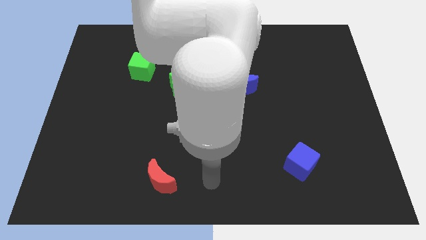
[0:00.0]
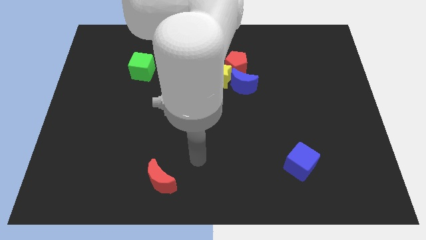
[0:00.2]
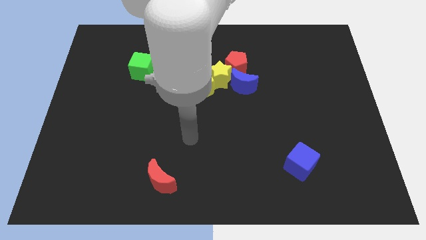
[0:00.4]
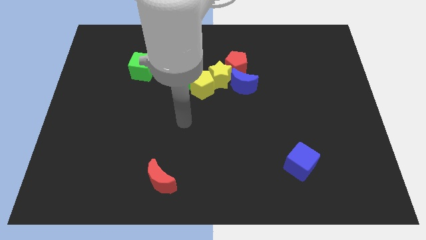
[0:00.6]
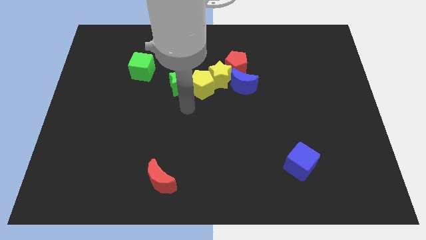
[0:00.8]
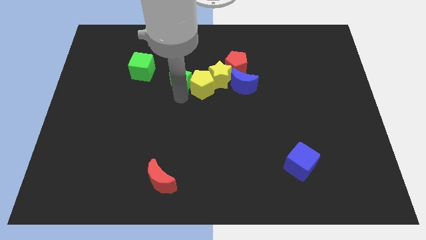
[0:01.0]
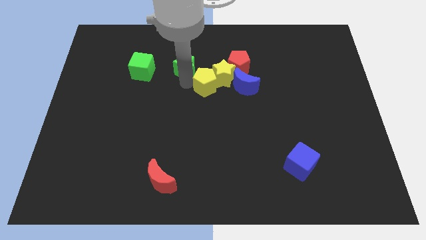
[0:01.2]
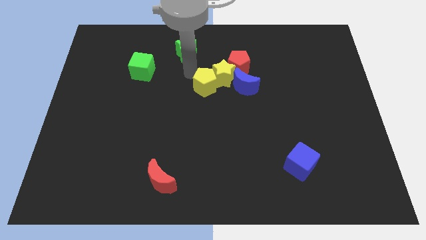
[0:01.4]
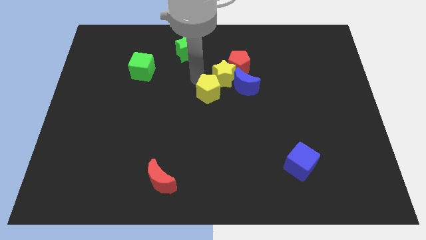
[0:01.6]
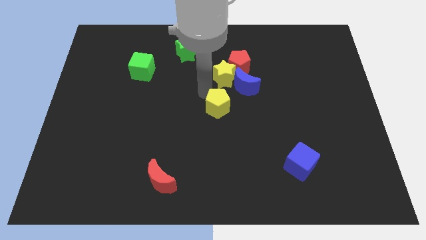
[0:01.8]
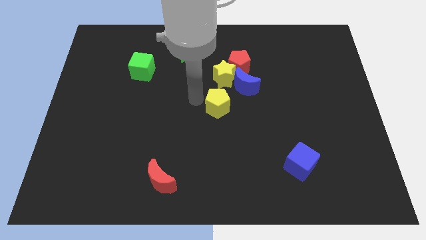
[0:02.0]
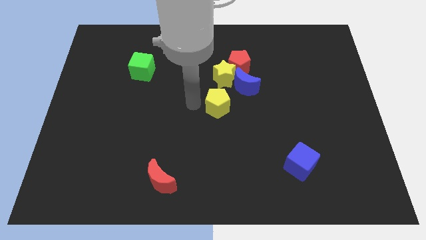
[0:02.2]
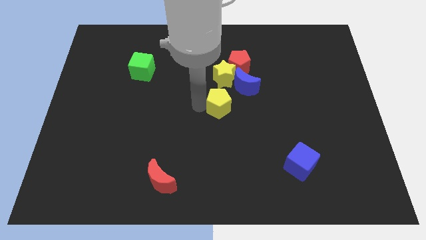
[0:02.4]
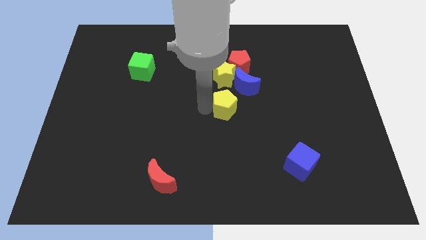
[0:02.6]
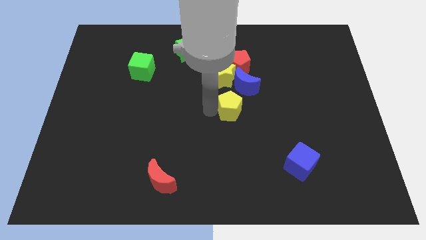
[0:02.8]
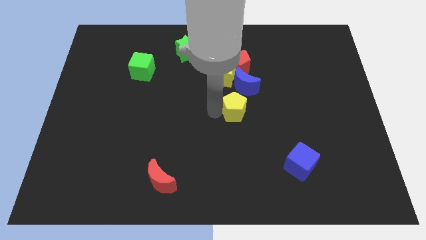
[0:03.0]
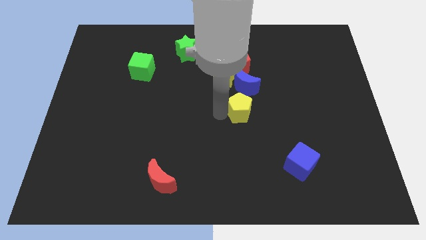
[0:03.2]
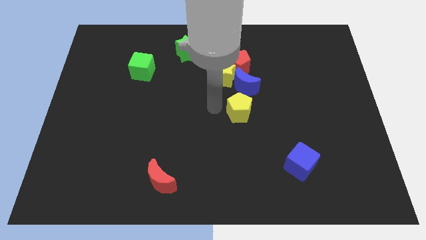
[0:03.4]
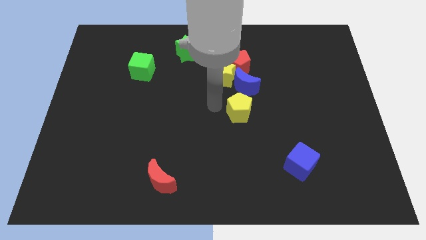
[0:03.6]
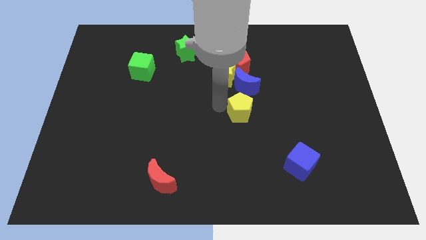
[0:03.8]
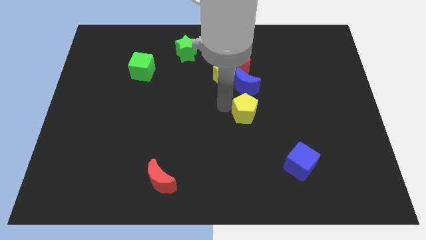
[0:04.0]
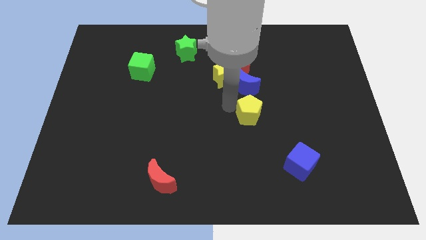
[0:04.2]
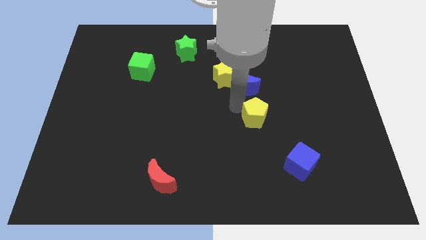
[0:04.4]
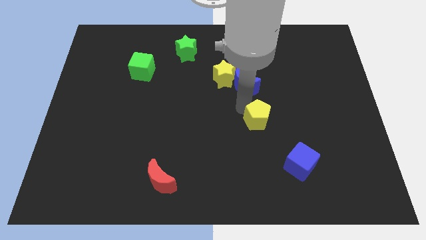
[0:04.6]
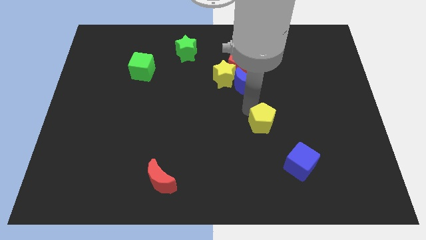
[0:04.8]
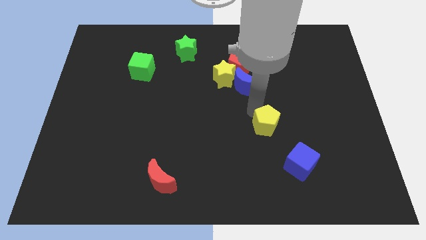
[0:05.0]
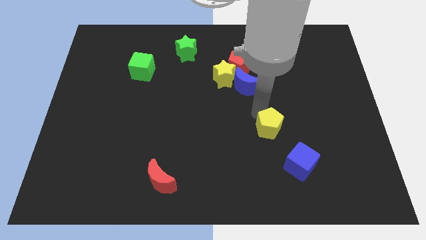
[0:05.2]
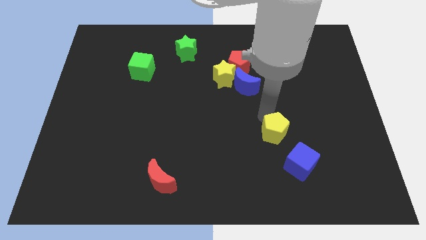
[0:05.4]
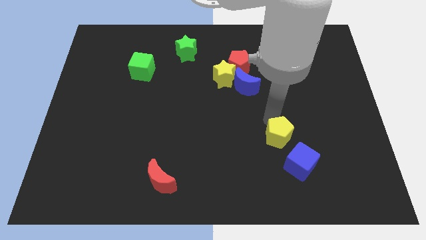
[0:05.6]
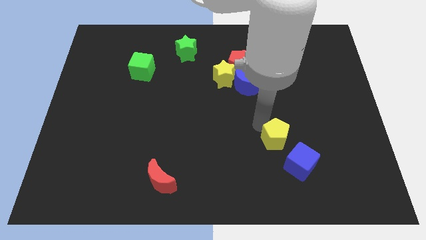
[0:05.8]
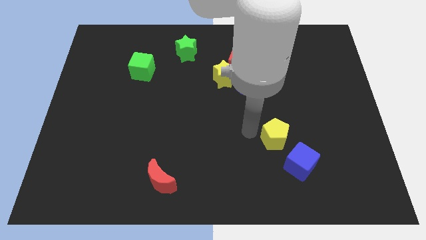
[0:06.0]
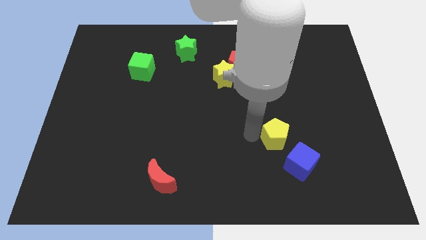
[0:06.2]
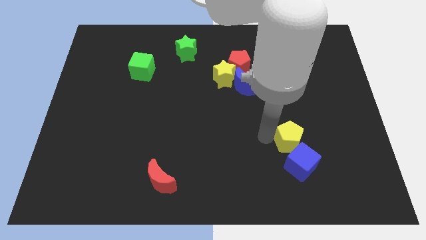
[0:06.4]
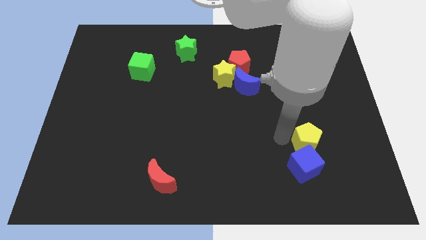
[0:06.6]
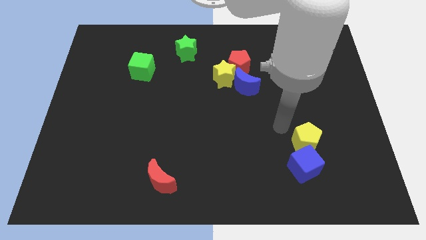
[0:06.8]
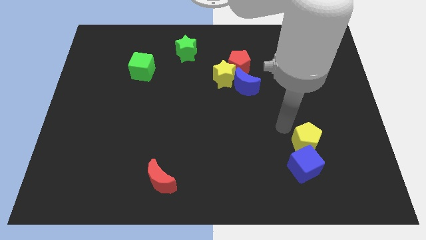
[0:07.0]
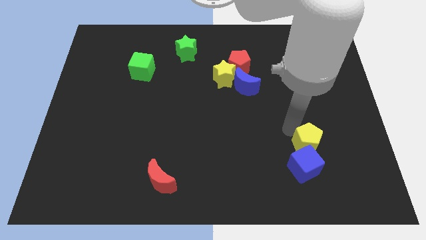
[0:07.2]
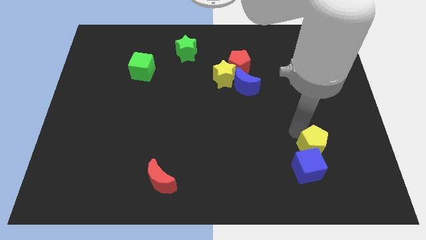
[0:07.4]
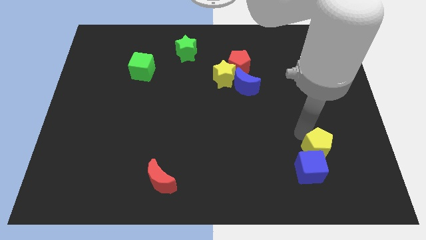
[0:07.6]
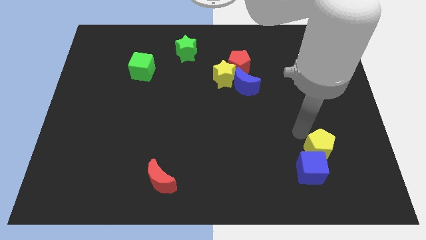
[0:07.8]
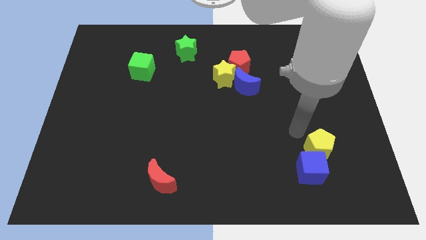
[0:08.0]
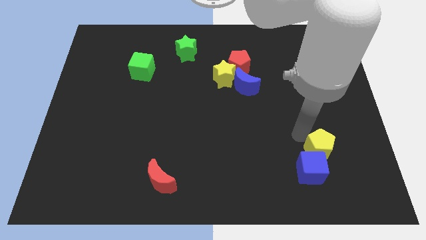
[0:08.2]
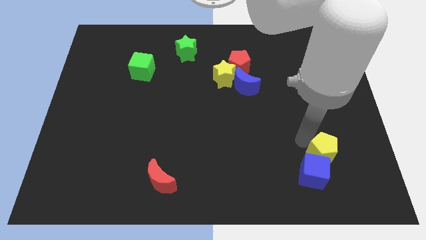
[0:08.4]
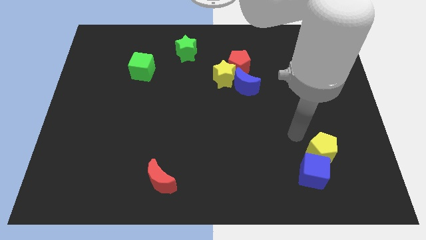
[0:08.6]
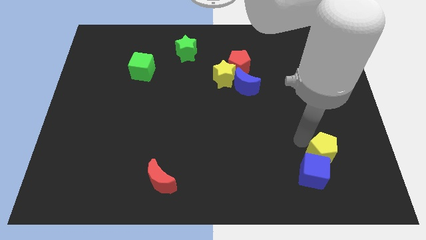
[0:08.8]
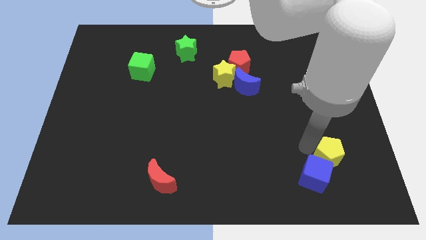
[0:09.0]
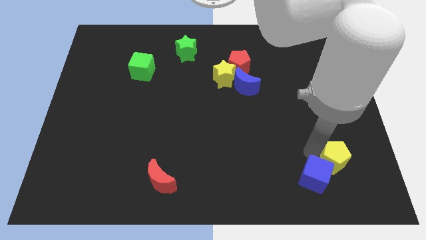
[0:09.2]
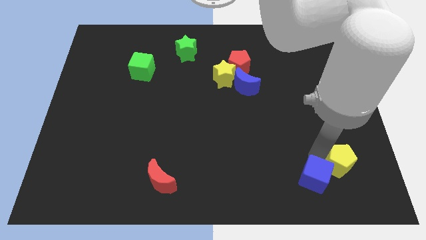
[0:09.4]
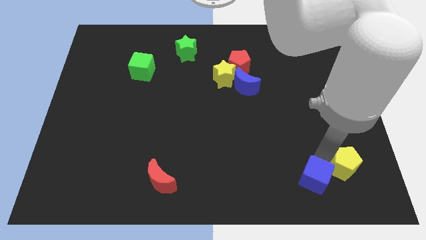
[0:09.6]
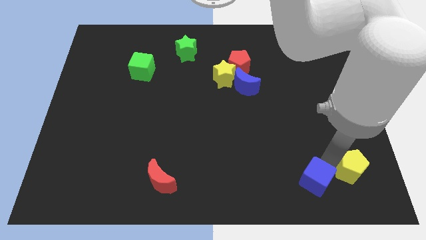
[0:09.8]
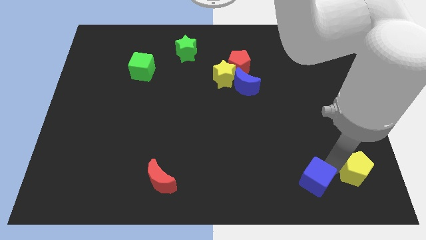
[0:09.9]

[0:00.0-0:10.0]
put the yellow pentagon to the bottom right corner

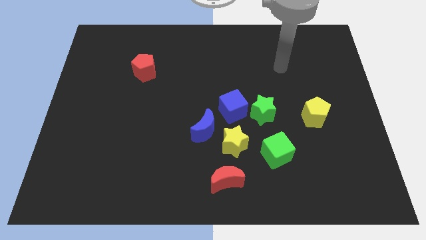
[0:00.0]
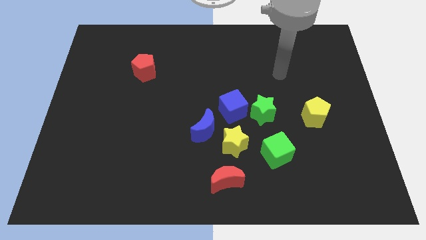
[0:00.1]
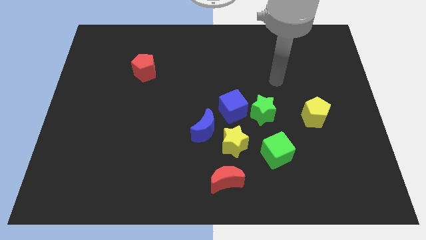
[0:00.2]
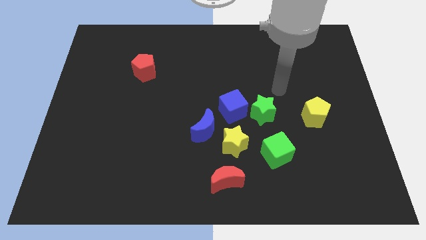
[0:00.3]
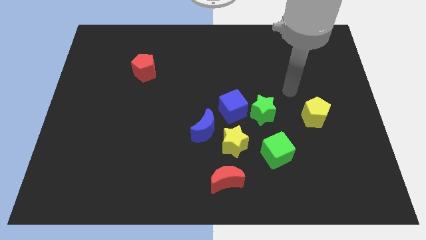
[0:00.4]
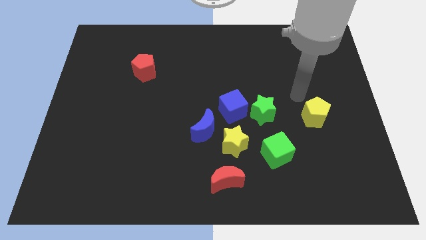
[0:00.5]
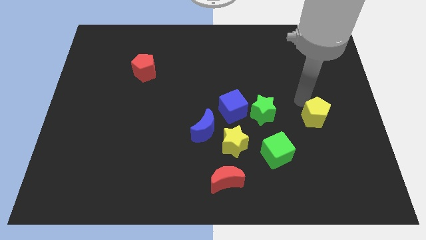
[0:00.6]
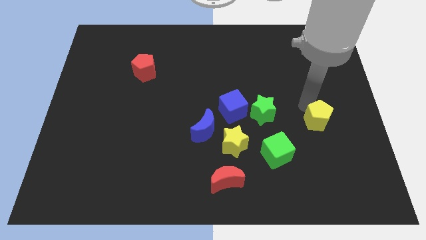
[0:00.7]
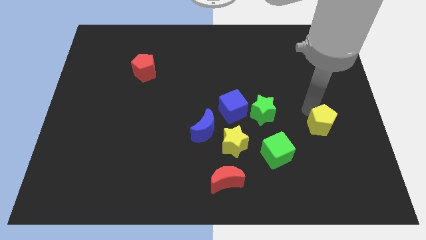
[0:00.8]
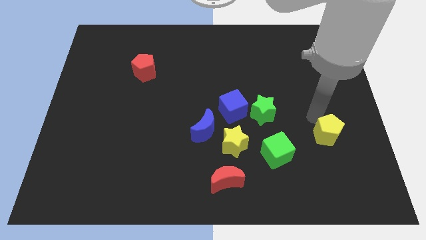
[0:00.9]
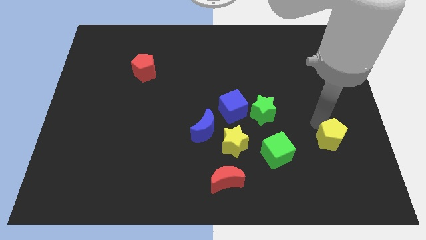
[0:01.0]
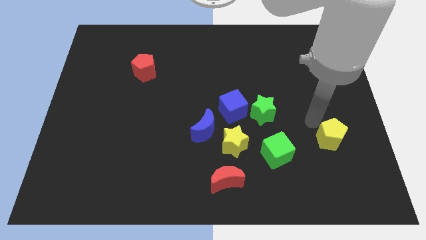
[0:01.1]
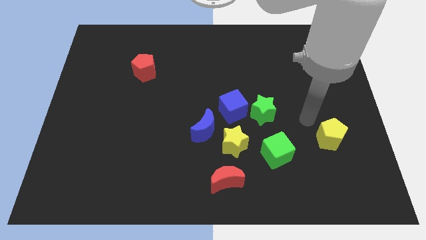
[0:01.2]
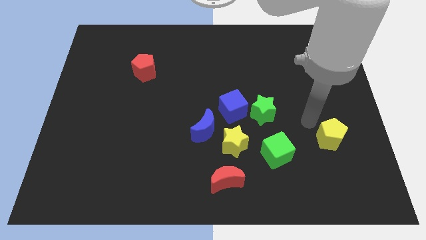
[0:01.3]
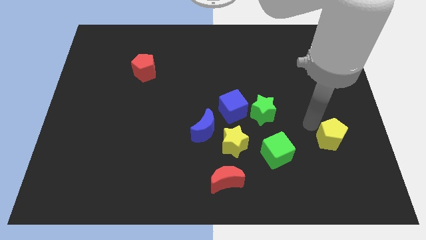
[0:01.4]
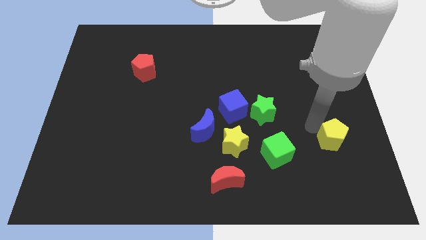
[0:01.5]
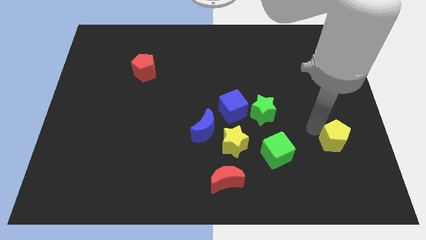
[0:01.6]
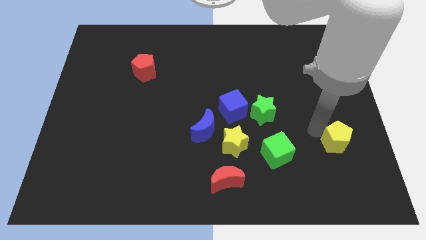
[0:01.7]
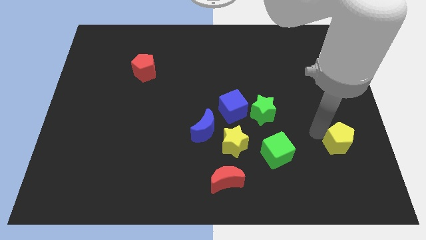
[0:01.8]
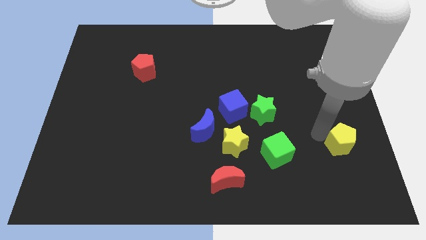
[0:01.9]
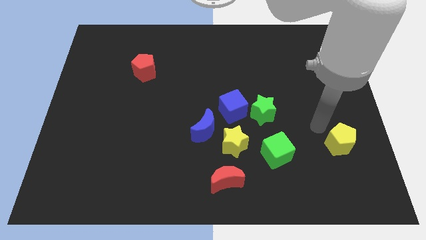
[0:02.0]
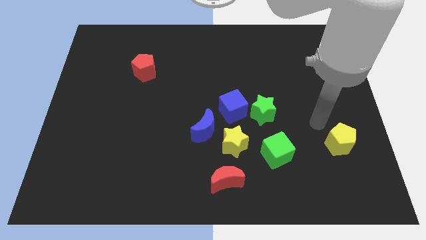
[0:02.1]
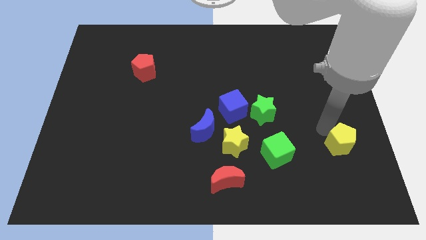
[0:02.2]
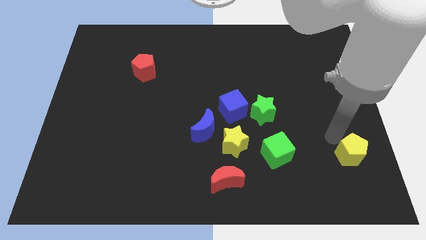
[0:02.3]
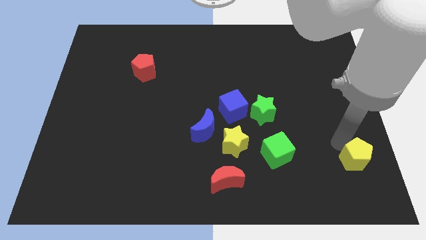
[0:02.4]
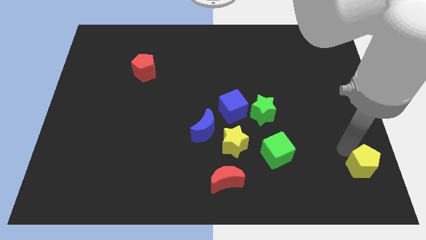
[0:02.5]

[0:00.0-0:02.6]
put the yellow pentagon to the lower right corner
